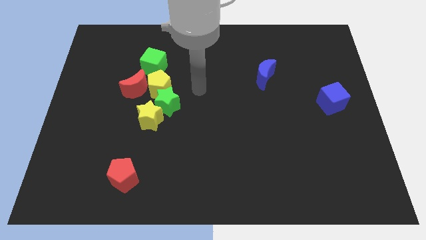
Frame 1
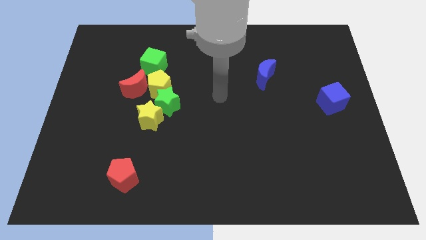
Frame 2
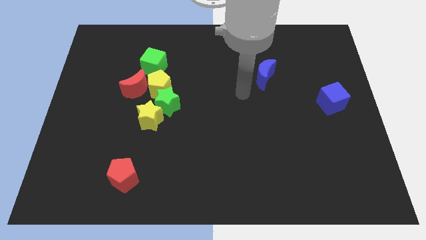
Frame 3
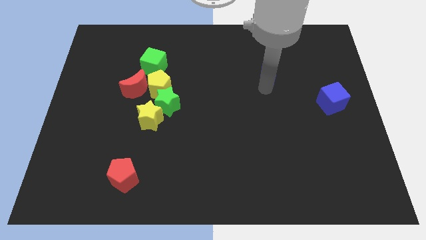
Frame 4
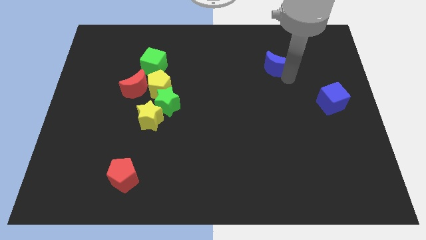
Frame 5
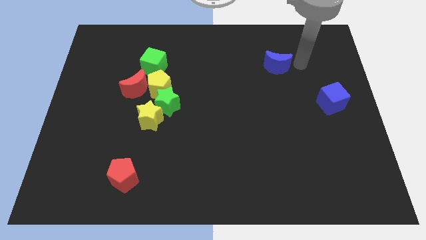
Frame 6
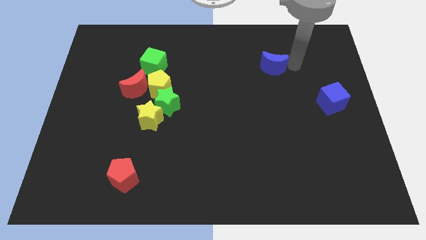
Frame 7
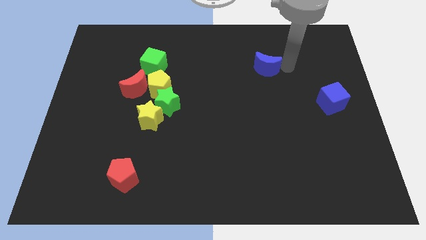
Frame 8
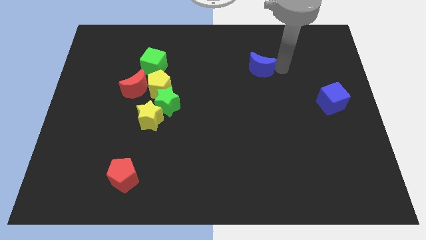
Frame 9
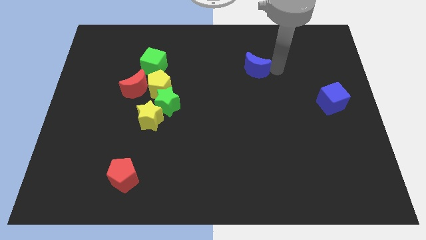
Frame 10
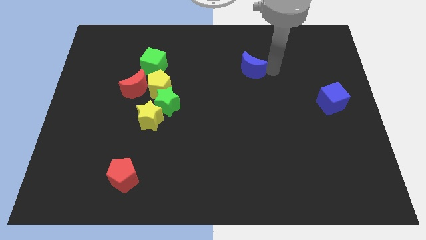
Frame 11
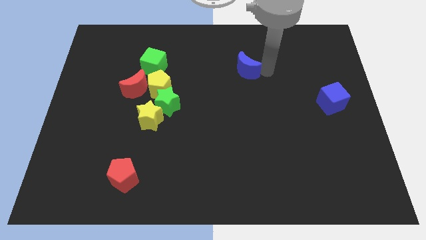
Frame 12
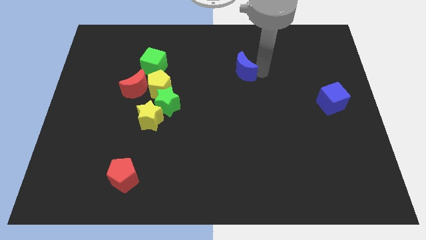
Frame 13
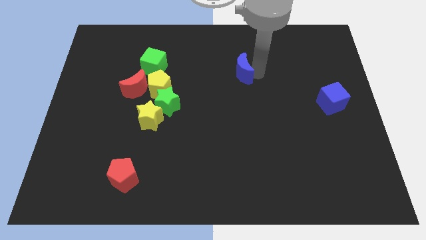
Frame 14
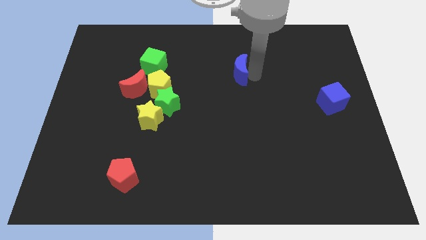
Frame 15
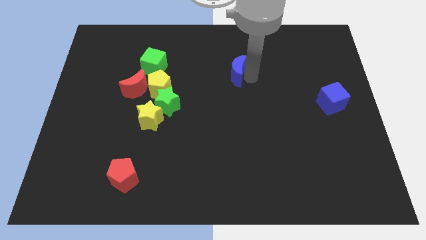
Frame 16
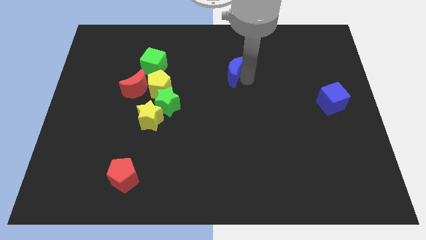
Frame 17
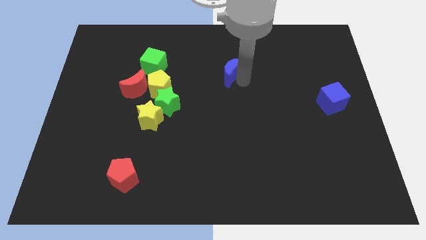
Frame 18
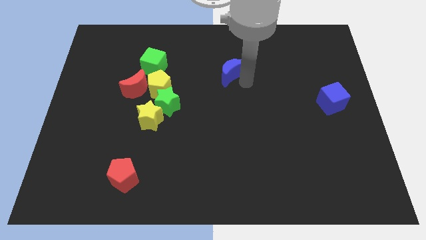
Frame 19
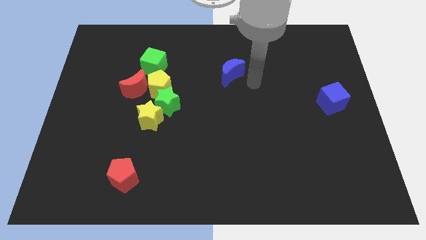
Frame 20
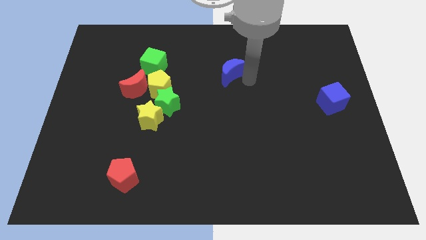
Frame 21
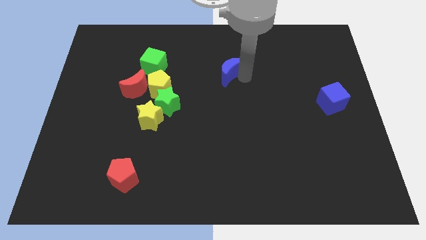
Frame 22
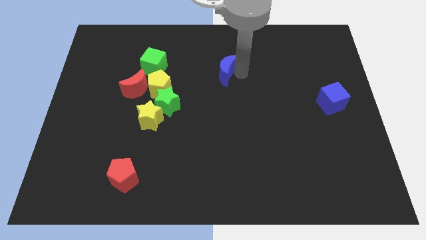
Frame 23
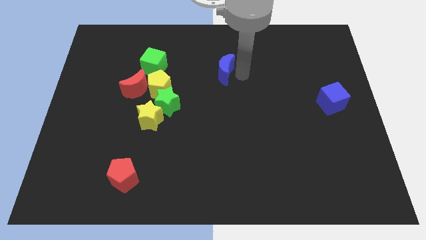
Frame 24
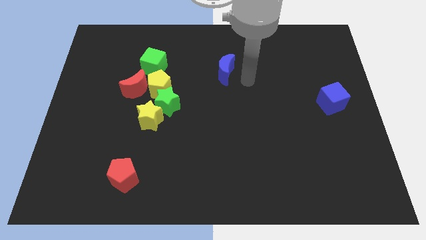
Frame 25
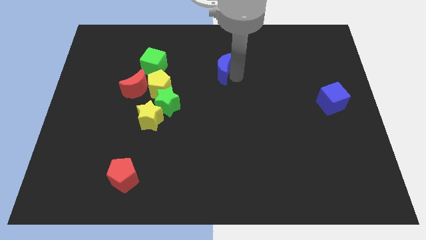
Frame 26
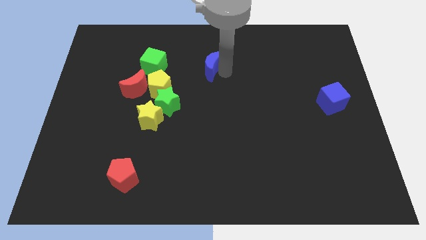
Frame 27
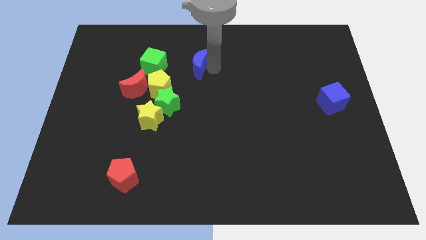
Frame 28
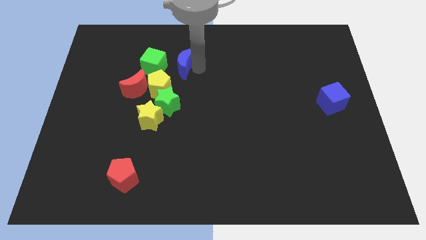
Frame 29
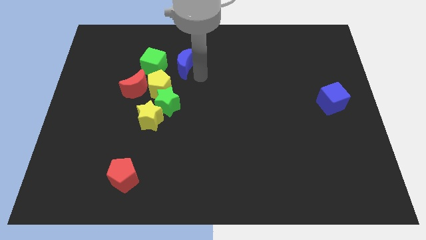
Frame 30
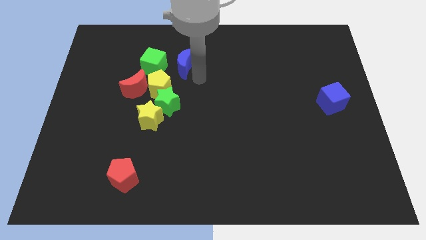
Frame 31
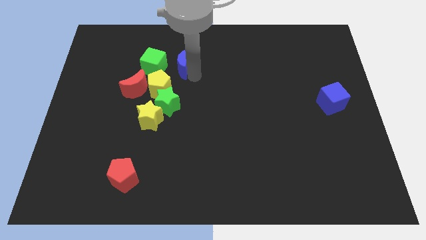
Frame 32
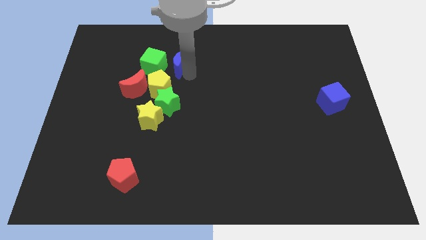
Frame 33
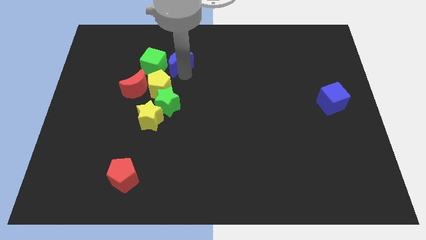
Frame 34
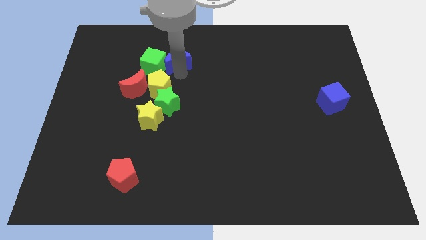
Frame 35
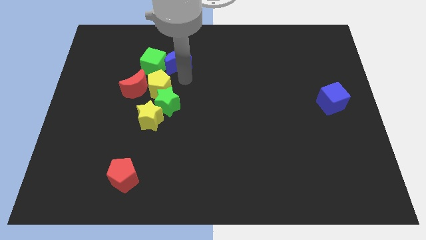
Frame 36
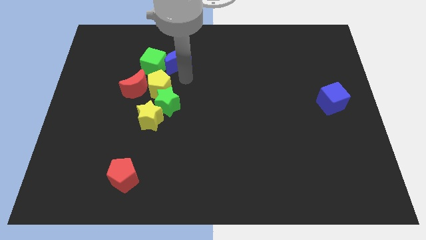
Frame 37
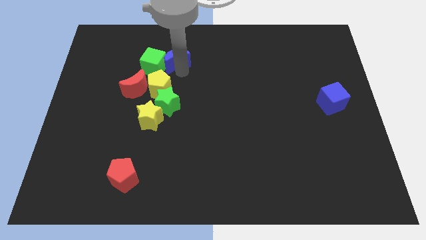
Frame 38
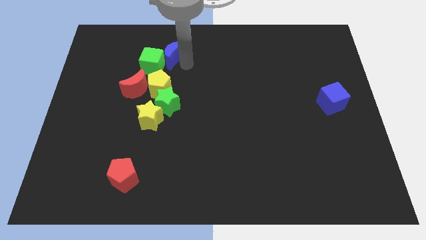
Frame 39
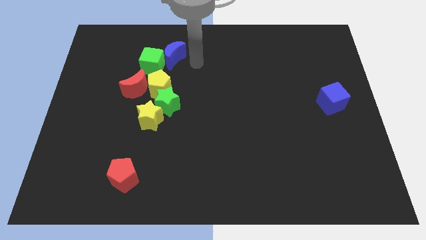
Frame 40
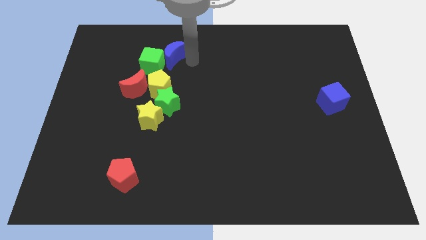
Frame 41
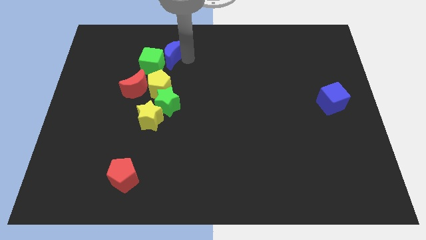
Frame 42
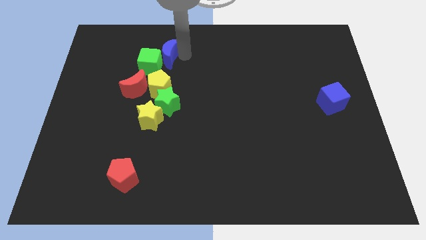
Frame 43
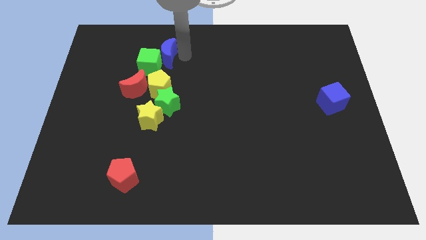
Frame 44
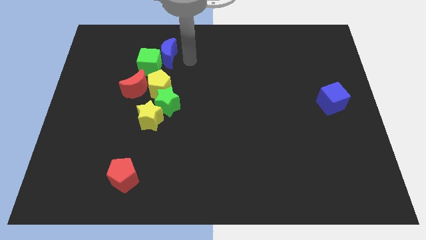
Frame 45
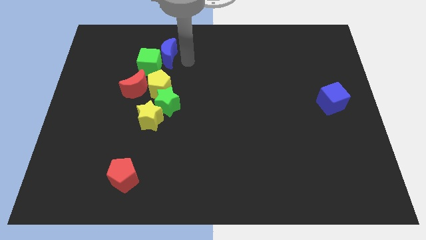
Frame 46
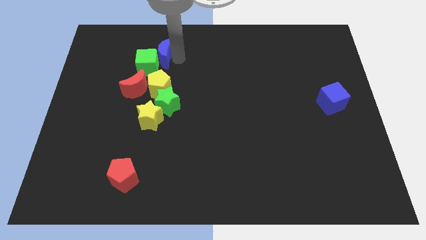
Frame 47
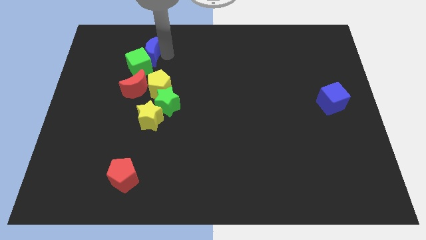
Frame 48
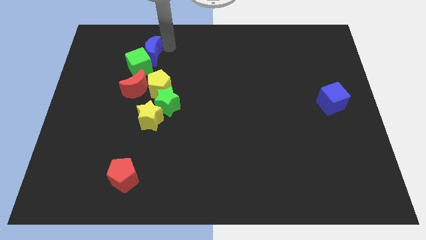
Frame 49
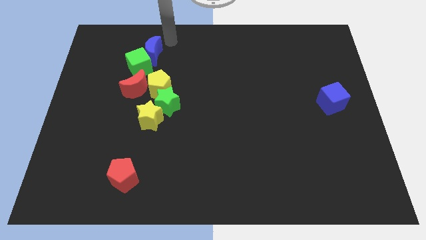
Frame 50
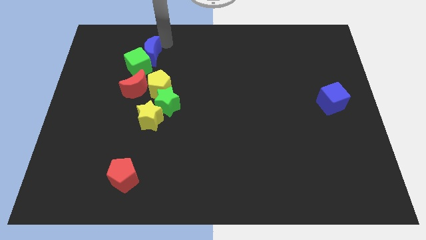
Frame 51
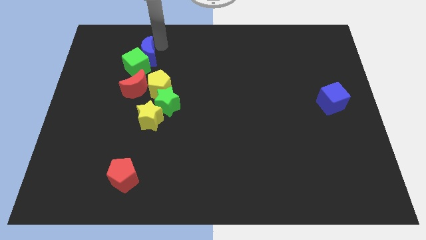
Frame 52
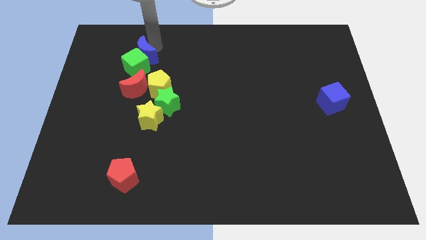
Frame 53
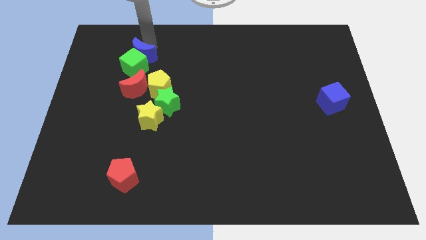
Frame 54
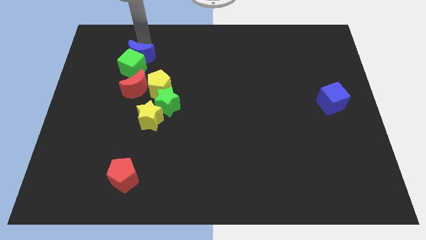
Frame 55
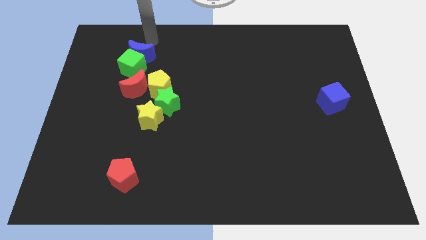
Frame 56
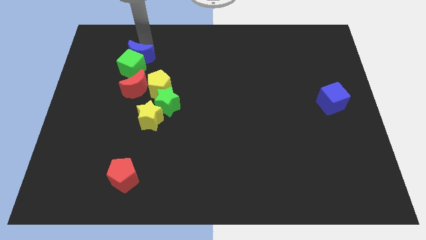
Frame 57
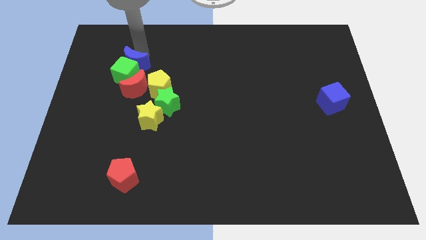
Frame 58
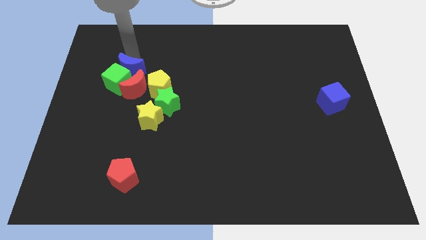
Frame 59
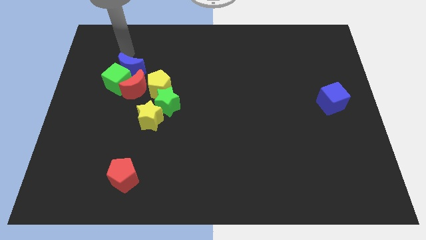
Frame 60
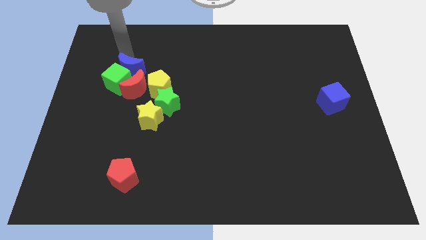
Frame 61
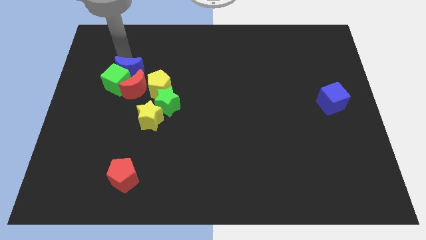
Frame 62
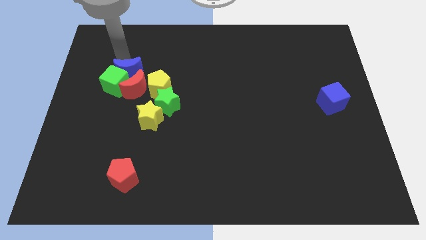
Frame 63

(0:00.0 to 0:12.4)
slide the blue moon next to the red moon

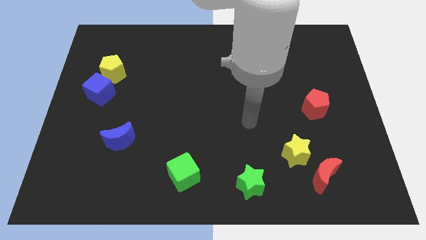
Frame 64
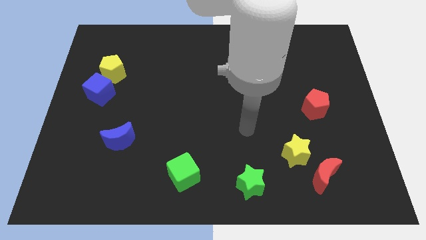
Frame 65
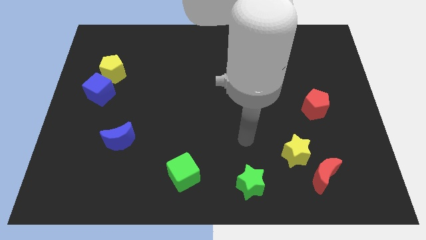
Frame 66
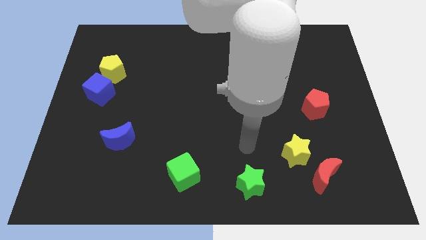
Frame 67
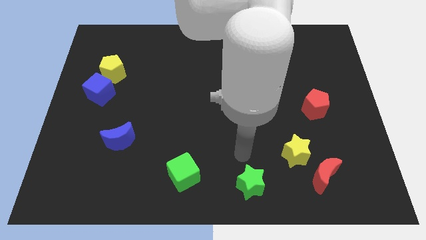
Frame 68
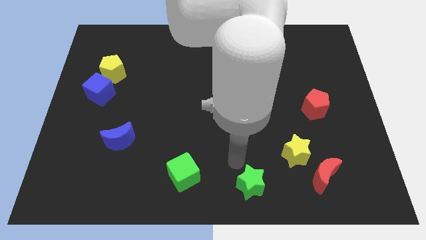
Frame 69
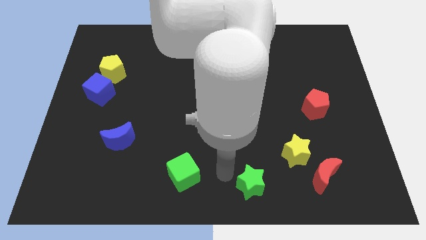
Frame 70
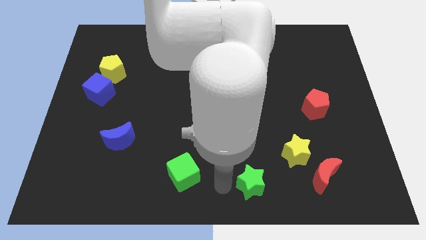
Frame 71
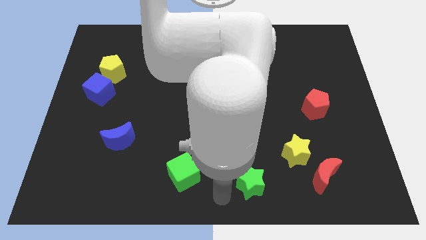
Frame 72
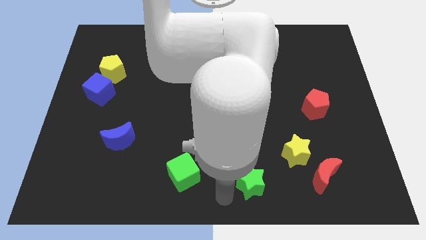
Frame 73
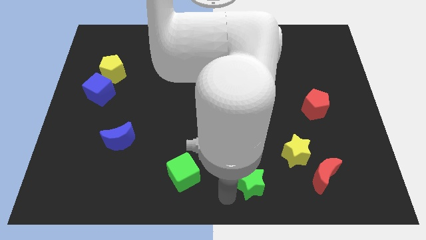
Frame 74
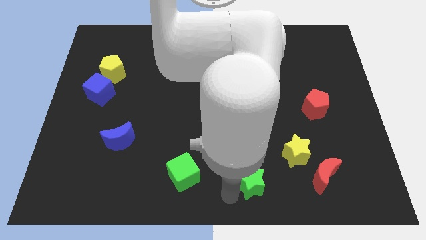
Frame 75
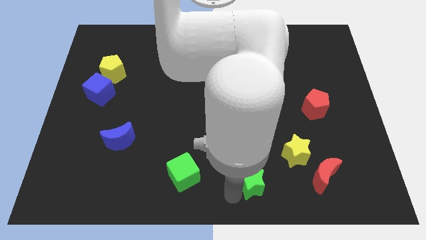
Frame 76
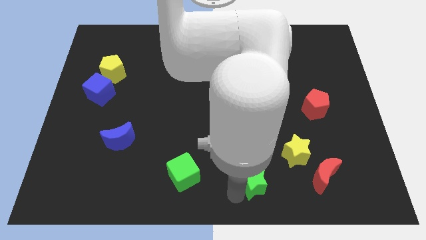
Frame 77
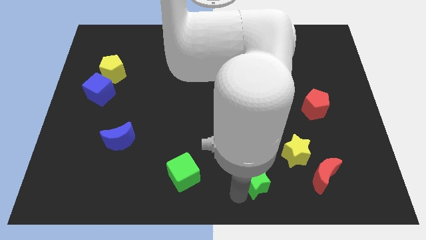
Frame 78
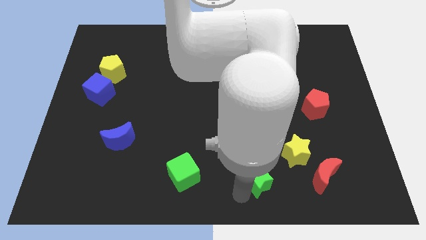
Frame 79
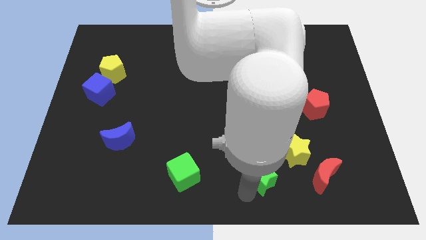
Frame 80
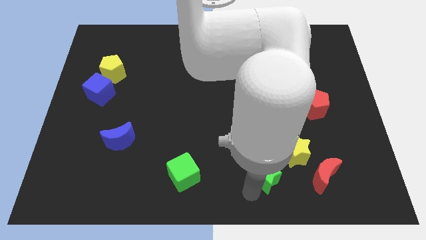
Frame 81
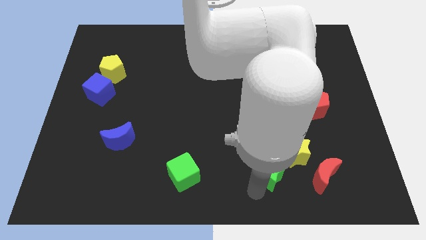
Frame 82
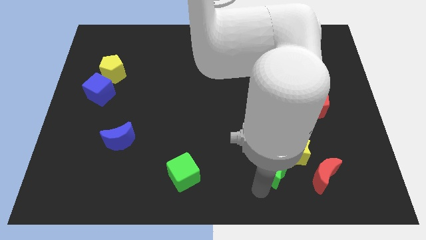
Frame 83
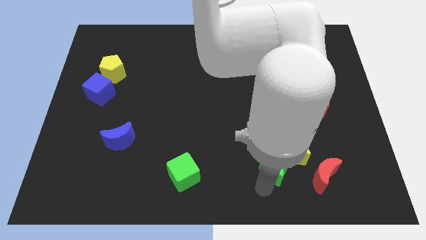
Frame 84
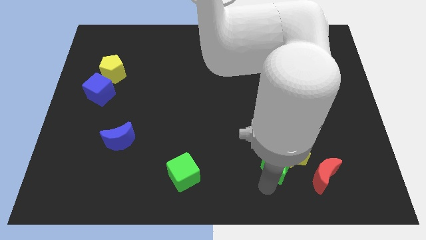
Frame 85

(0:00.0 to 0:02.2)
slide the green star to the yellow star
